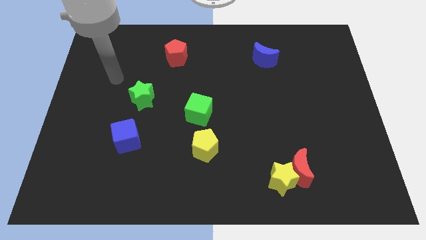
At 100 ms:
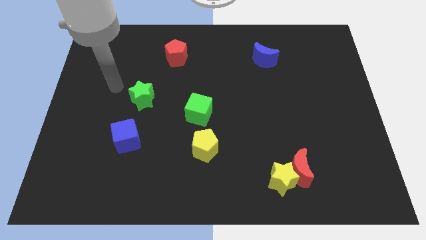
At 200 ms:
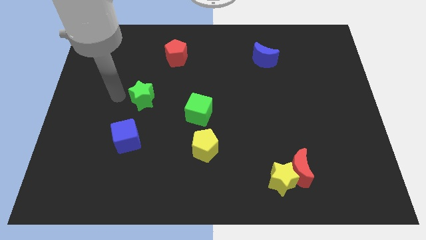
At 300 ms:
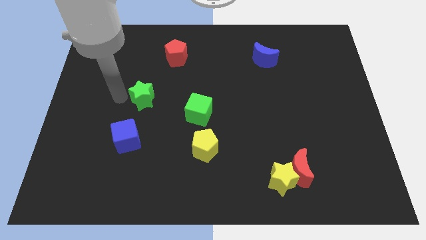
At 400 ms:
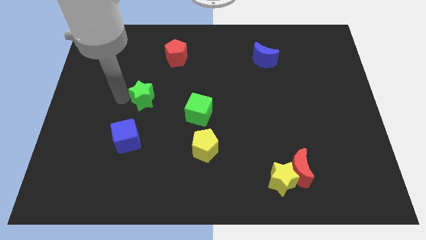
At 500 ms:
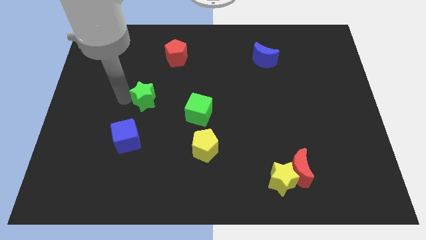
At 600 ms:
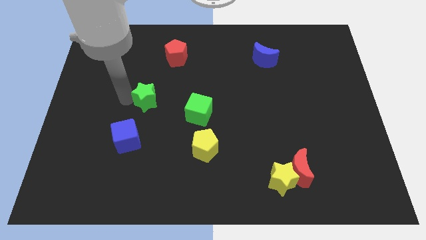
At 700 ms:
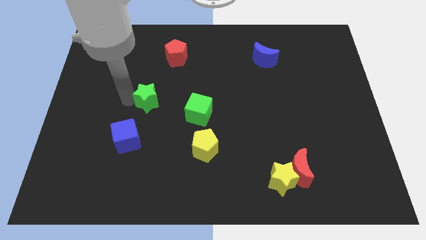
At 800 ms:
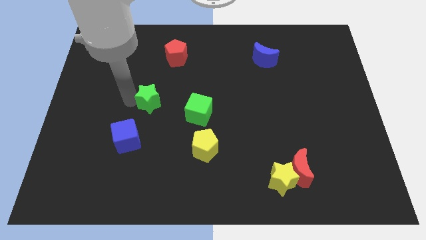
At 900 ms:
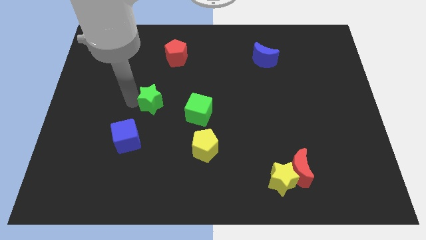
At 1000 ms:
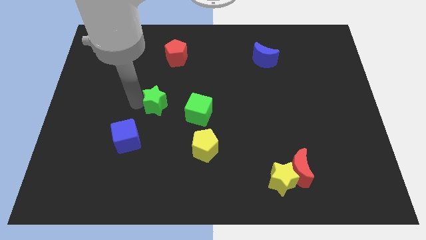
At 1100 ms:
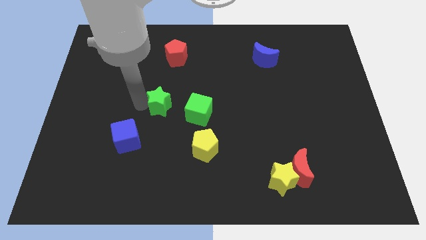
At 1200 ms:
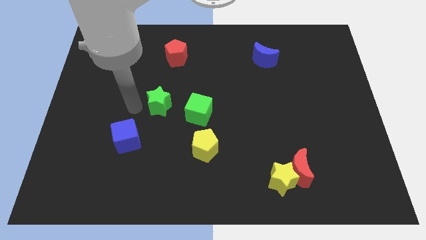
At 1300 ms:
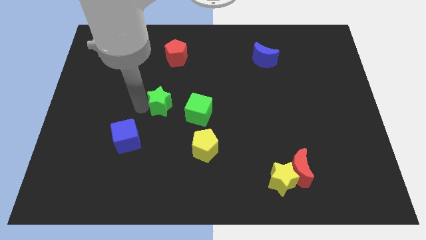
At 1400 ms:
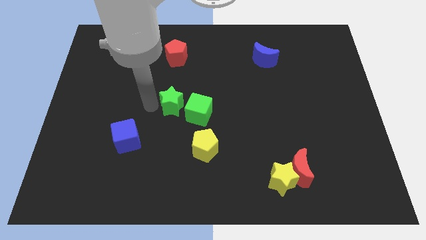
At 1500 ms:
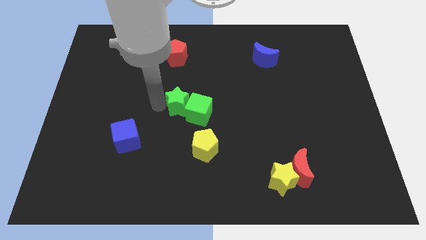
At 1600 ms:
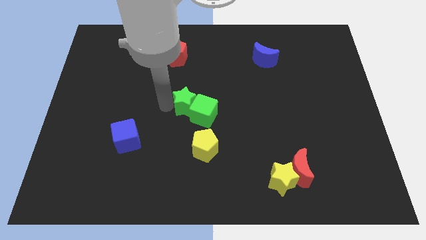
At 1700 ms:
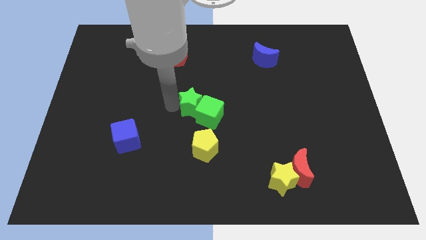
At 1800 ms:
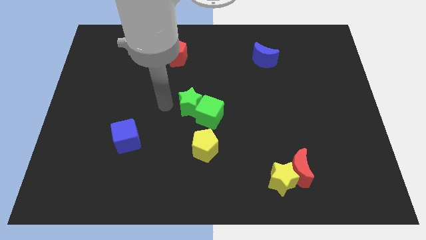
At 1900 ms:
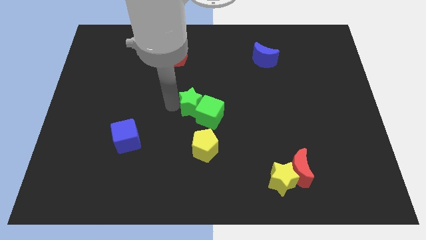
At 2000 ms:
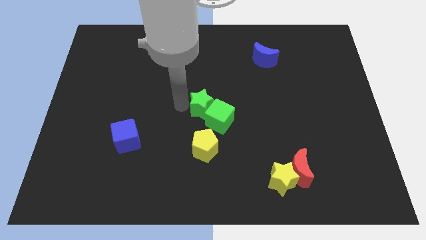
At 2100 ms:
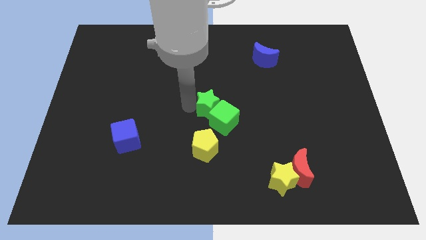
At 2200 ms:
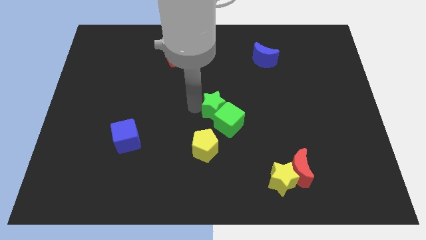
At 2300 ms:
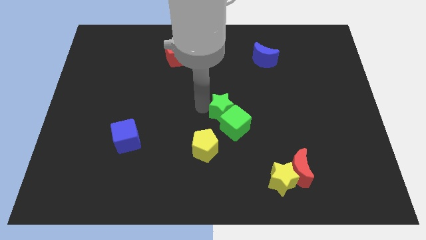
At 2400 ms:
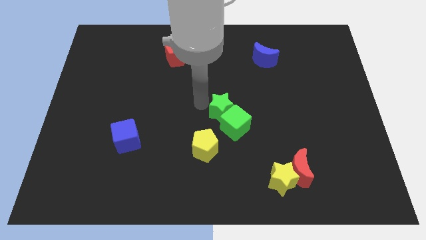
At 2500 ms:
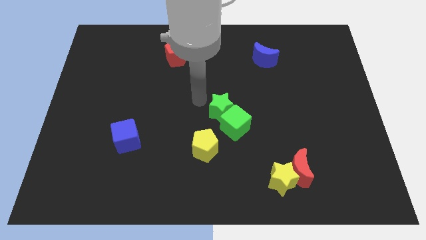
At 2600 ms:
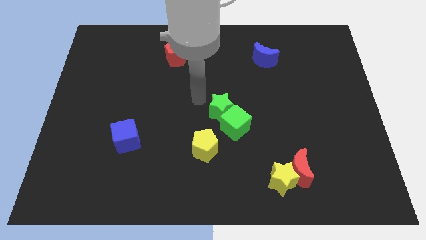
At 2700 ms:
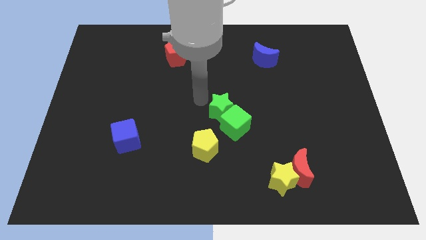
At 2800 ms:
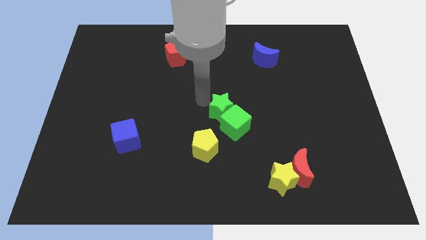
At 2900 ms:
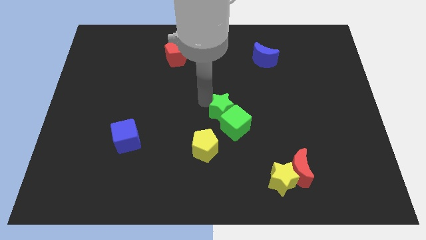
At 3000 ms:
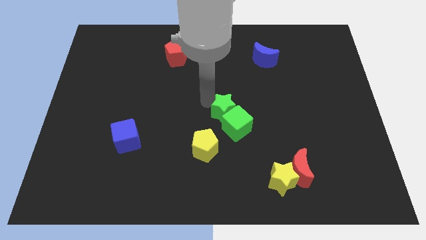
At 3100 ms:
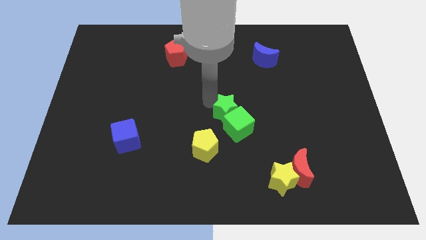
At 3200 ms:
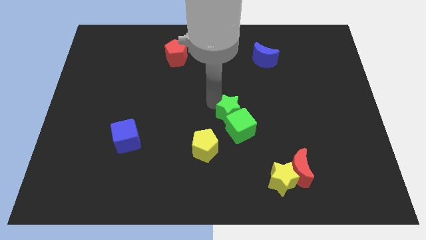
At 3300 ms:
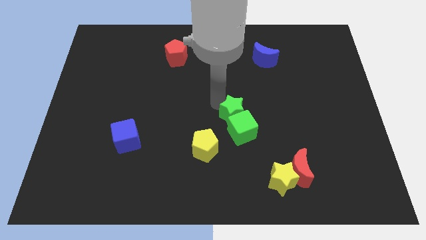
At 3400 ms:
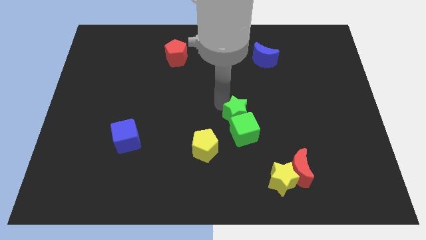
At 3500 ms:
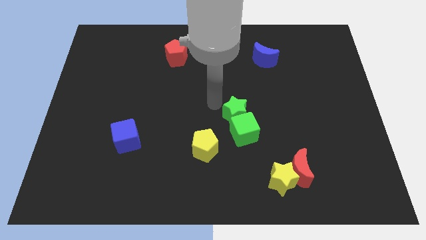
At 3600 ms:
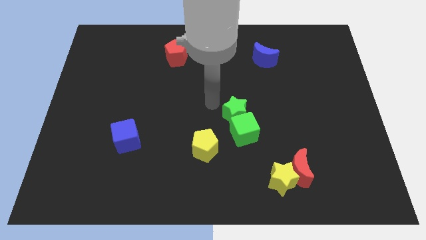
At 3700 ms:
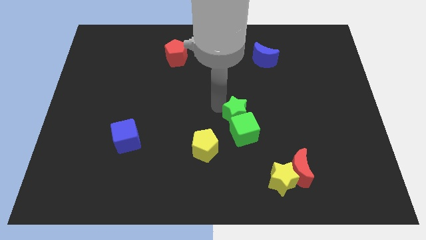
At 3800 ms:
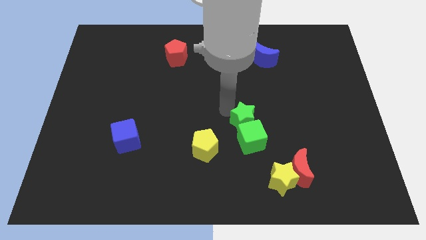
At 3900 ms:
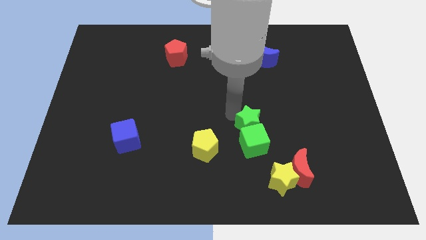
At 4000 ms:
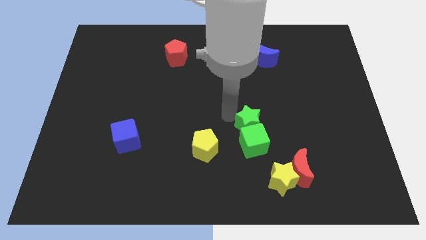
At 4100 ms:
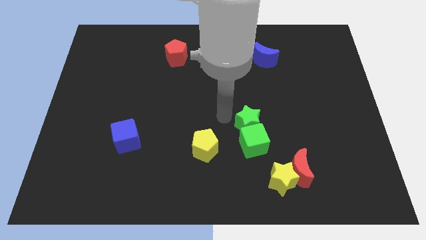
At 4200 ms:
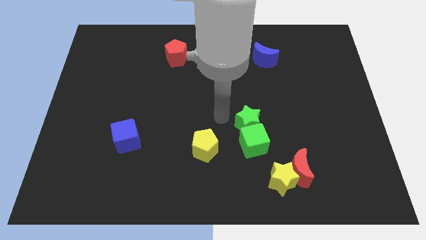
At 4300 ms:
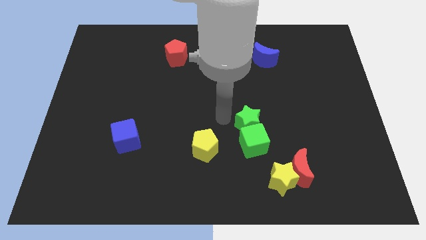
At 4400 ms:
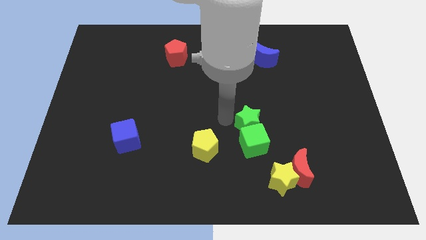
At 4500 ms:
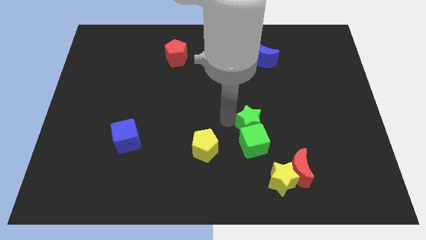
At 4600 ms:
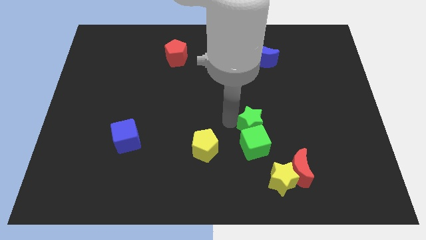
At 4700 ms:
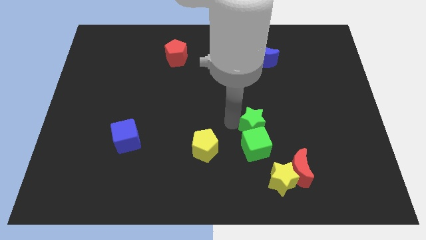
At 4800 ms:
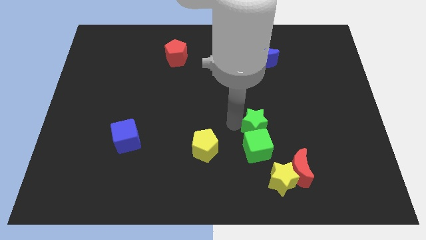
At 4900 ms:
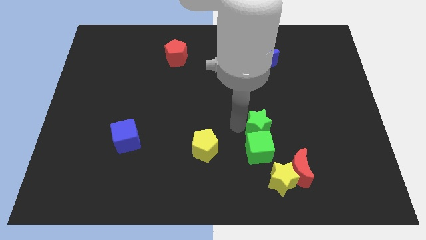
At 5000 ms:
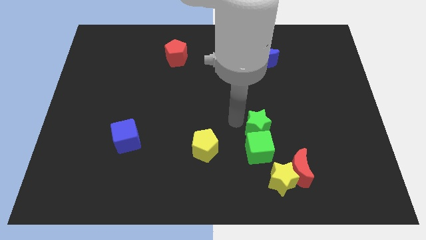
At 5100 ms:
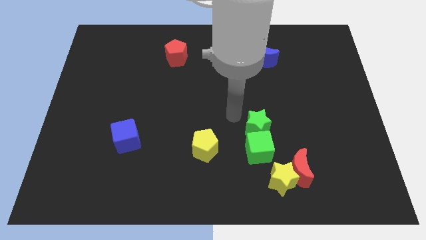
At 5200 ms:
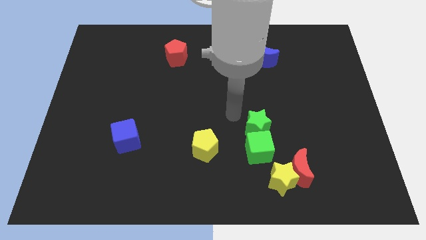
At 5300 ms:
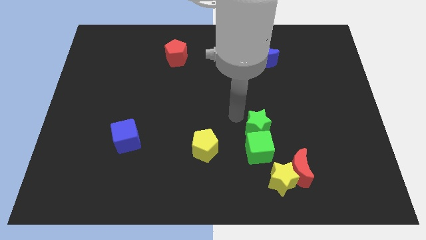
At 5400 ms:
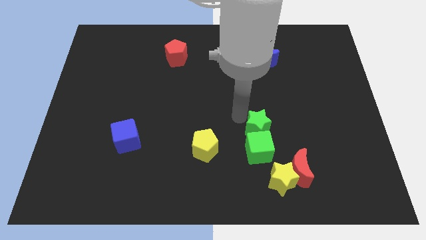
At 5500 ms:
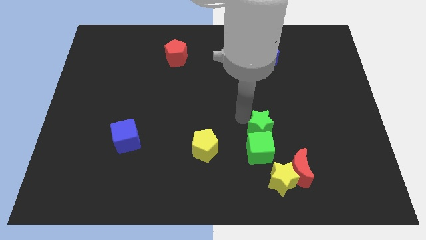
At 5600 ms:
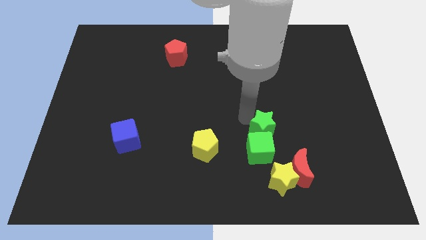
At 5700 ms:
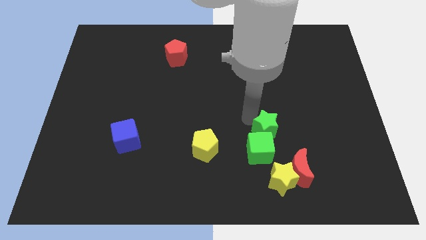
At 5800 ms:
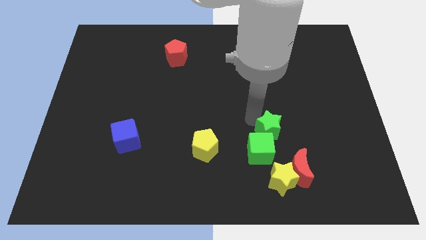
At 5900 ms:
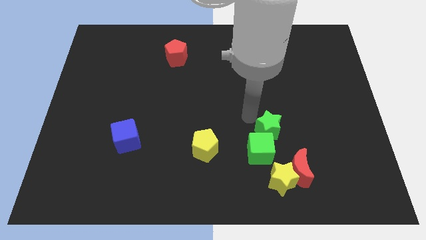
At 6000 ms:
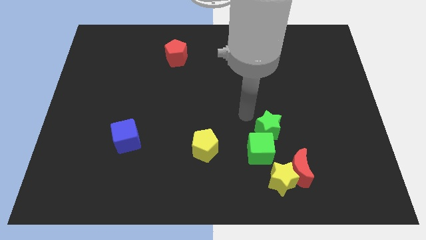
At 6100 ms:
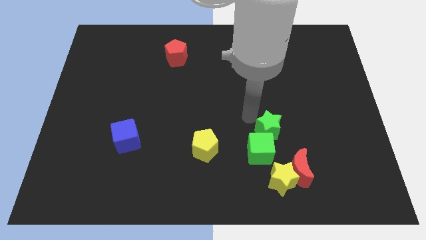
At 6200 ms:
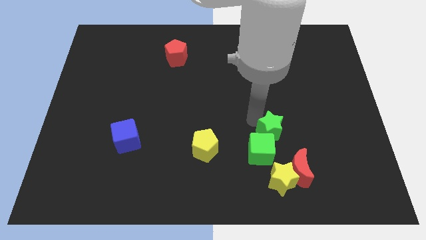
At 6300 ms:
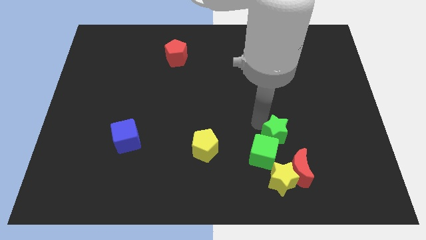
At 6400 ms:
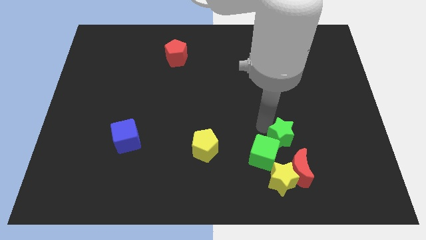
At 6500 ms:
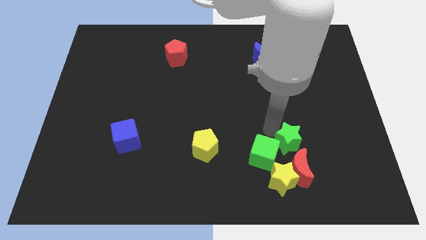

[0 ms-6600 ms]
slide the green star to the top right side of the yellow star
